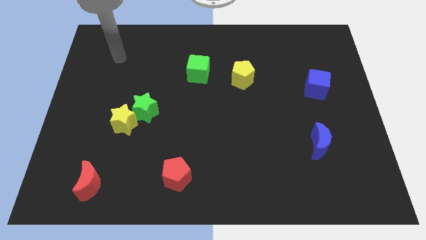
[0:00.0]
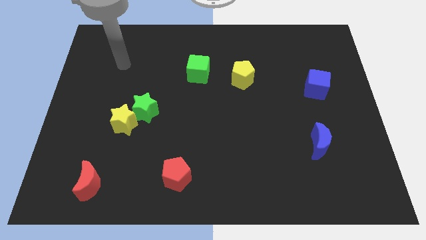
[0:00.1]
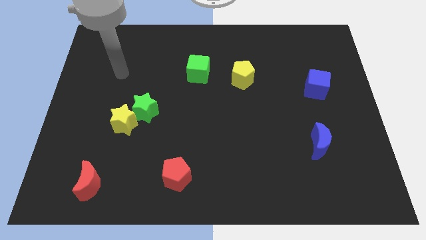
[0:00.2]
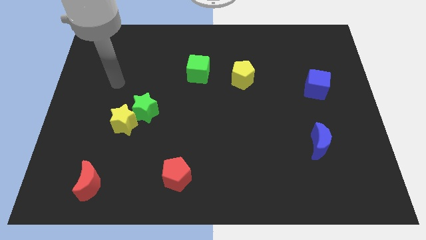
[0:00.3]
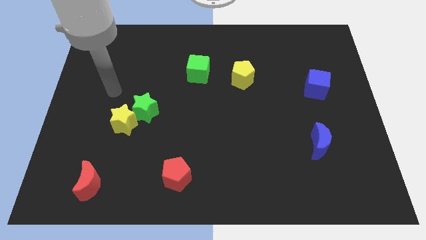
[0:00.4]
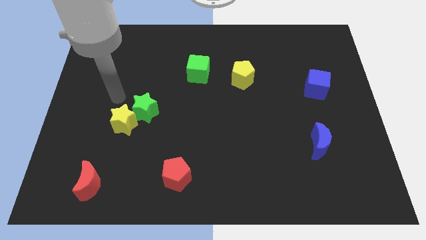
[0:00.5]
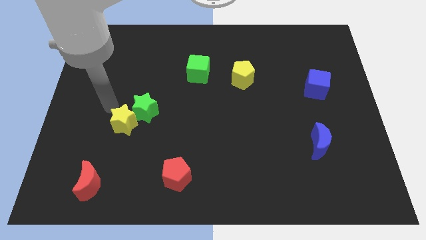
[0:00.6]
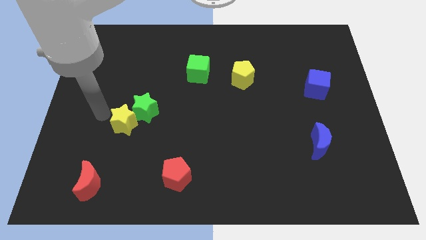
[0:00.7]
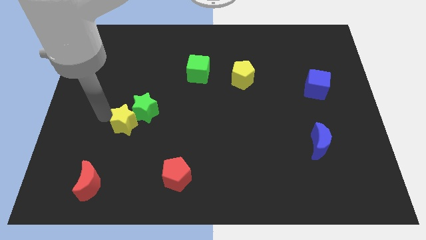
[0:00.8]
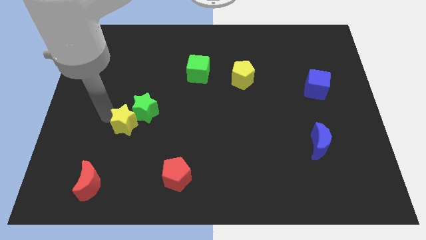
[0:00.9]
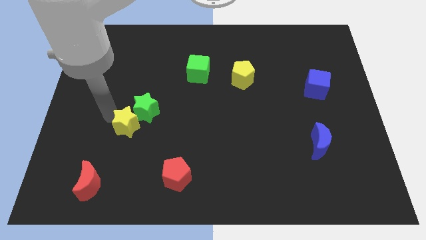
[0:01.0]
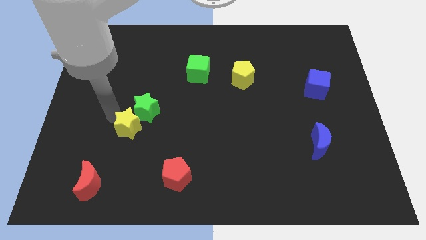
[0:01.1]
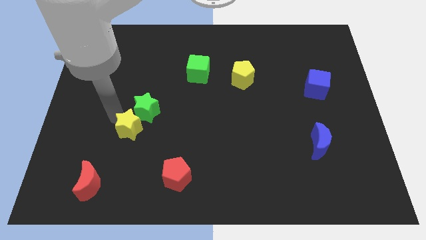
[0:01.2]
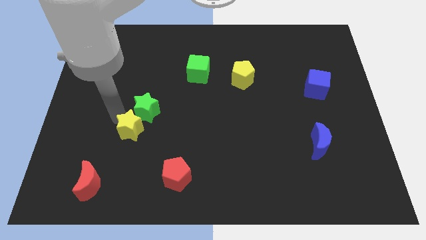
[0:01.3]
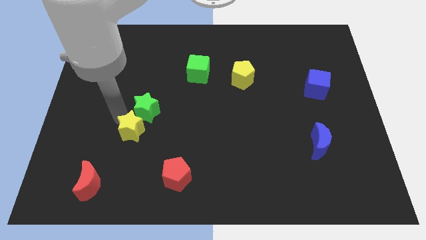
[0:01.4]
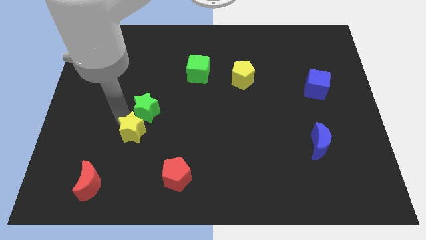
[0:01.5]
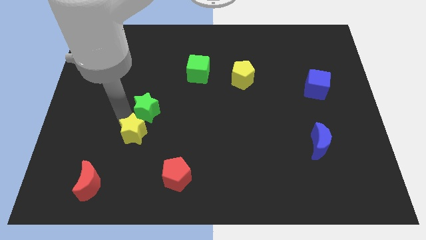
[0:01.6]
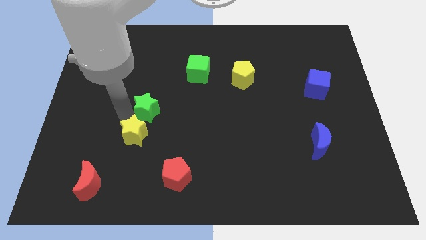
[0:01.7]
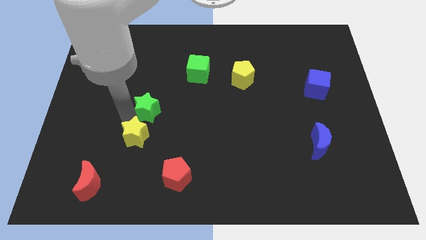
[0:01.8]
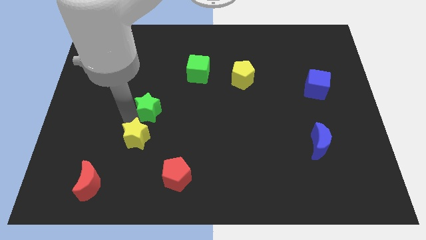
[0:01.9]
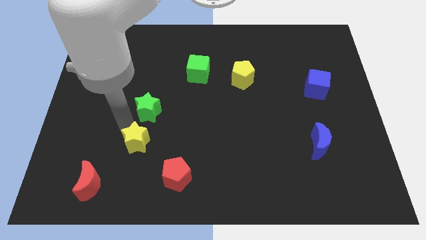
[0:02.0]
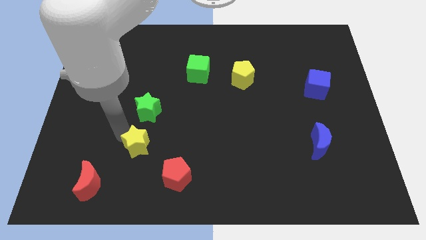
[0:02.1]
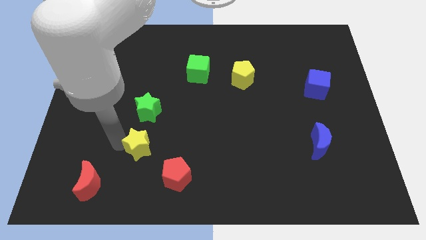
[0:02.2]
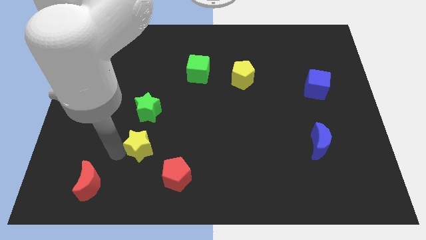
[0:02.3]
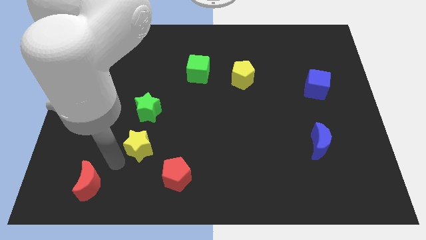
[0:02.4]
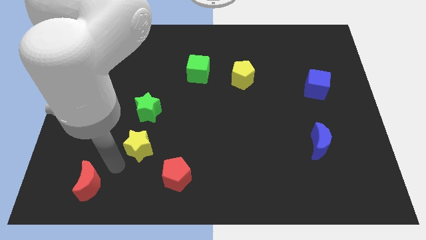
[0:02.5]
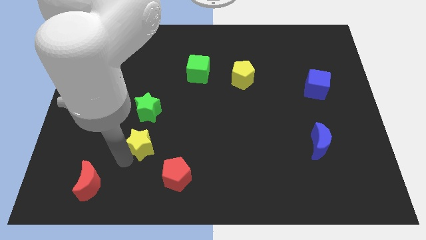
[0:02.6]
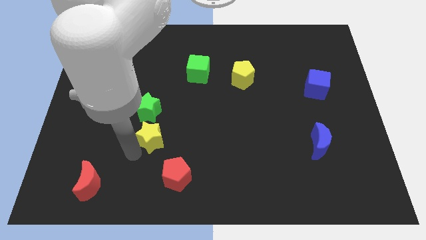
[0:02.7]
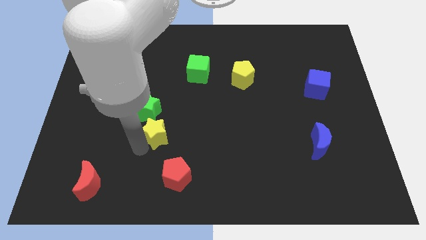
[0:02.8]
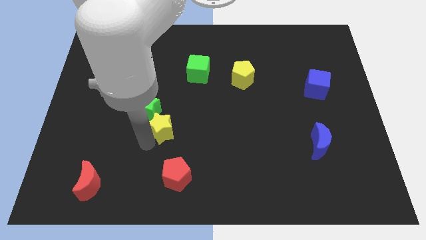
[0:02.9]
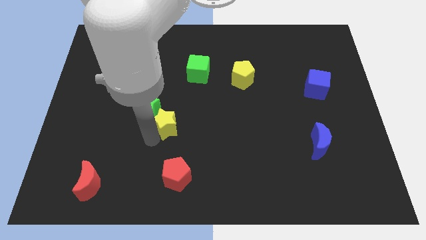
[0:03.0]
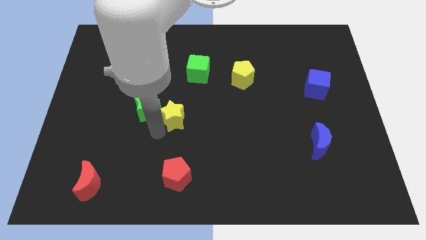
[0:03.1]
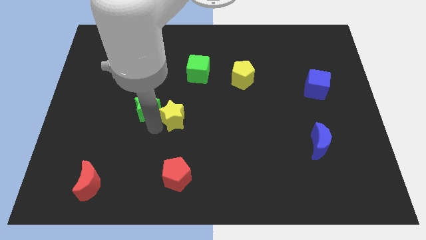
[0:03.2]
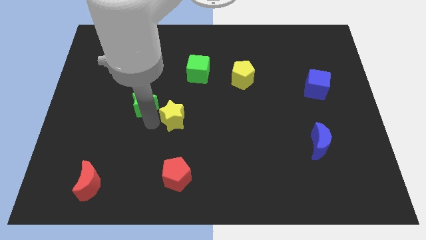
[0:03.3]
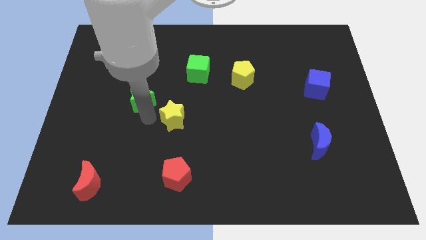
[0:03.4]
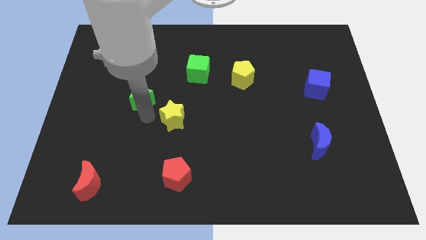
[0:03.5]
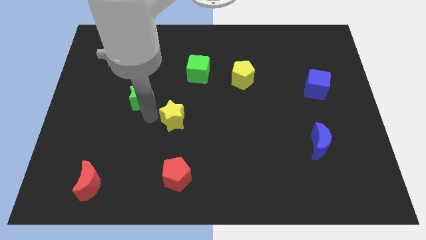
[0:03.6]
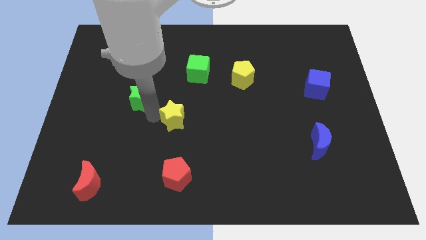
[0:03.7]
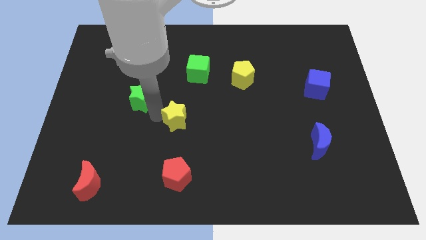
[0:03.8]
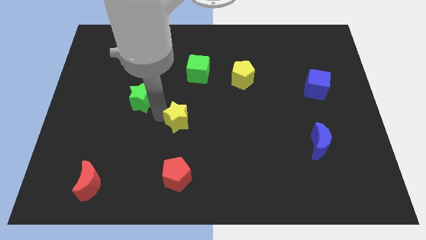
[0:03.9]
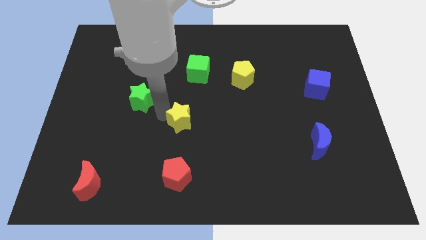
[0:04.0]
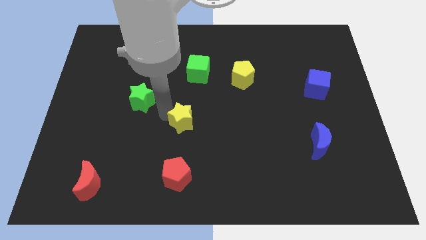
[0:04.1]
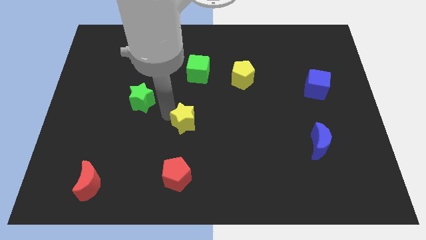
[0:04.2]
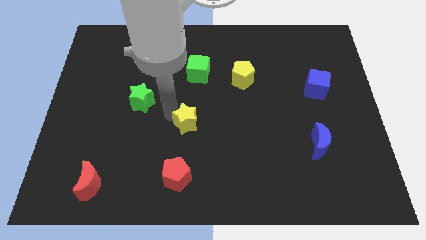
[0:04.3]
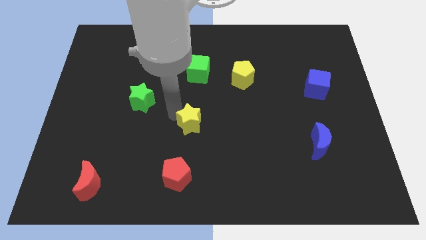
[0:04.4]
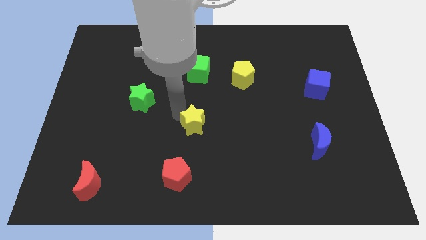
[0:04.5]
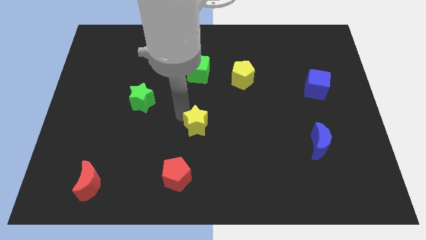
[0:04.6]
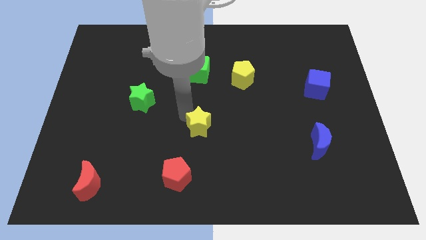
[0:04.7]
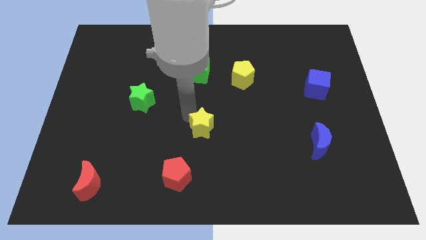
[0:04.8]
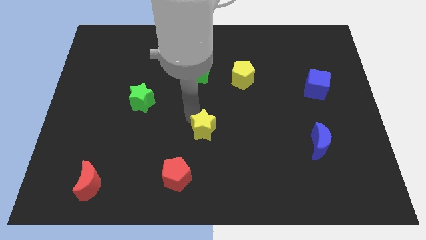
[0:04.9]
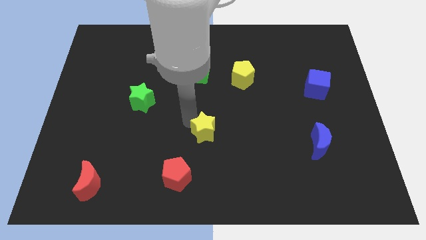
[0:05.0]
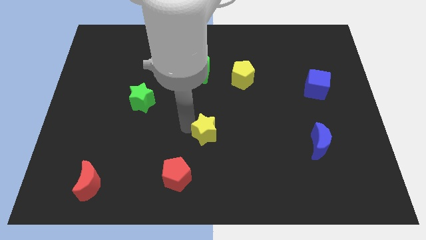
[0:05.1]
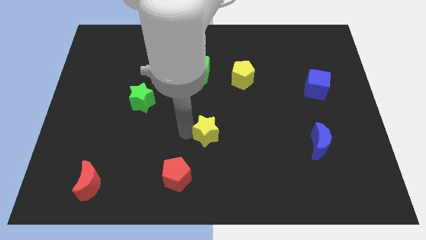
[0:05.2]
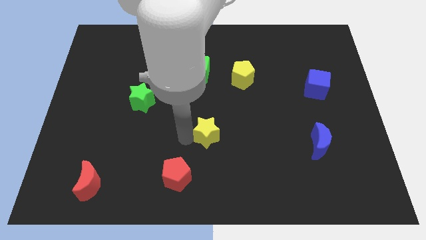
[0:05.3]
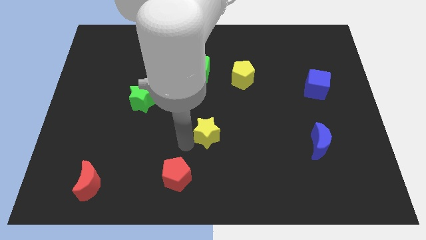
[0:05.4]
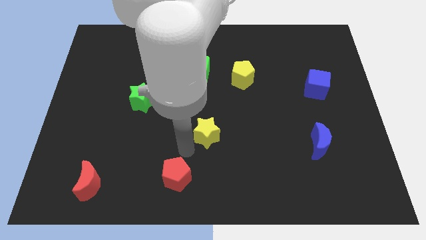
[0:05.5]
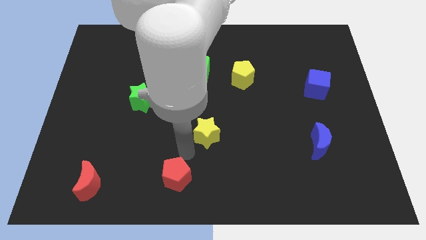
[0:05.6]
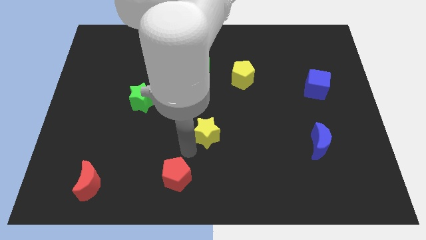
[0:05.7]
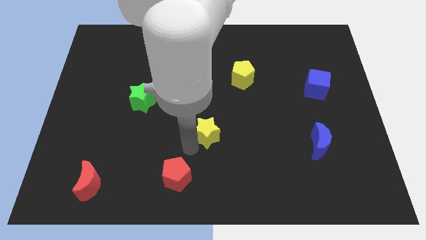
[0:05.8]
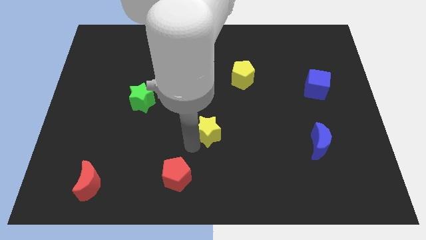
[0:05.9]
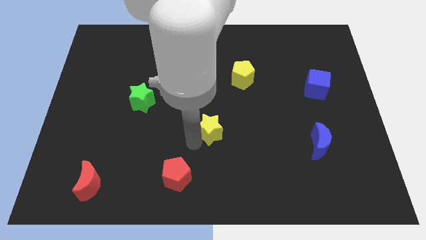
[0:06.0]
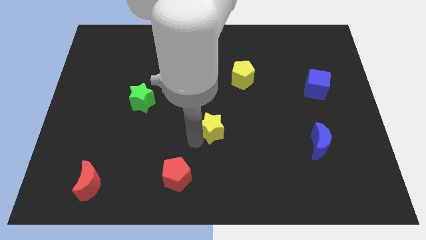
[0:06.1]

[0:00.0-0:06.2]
push the yellow star to the right

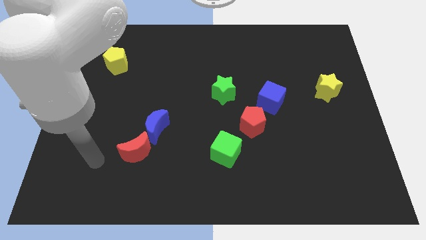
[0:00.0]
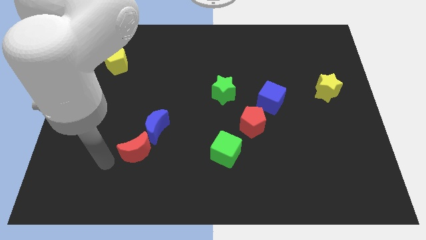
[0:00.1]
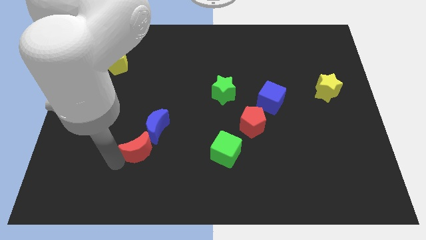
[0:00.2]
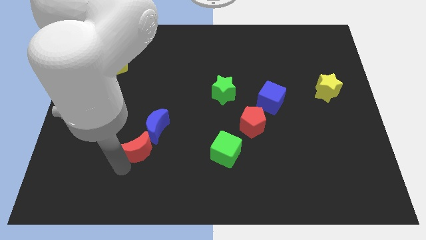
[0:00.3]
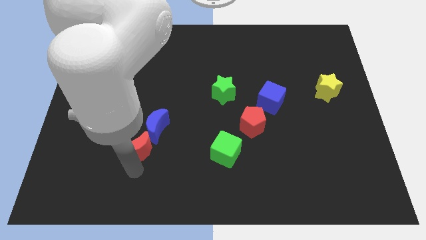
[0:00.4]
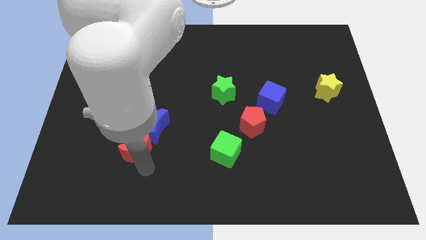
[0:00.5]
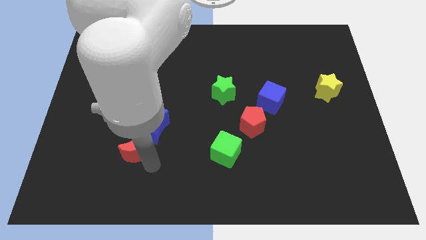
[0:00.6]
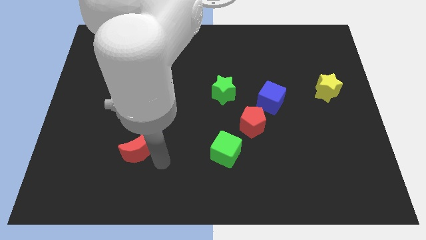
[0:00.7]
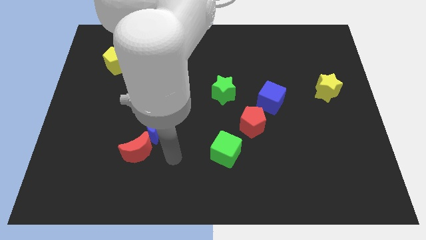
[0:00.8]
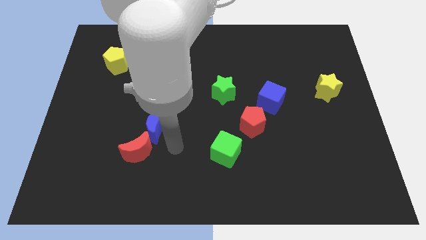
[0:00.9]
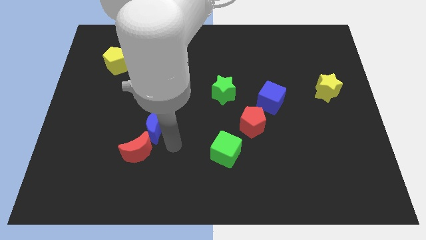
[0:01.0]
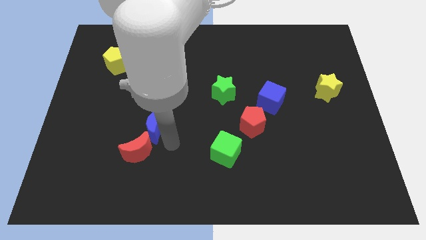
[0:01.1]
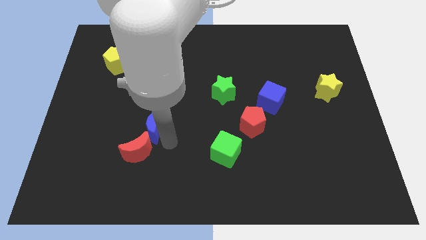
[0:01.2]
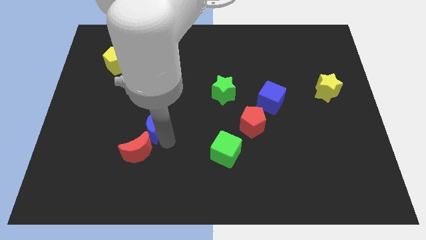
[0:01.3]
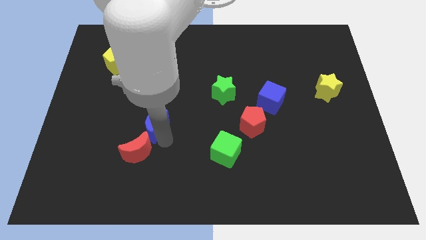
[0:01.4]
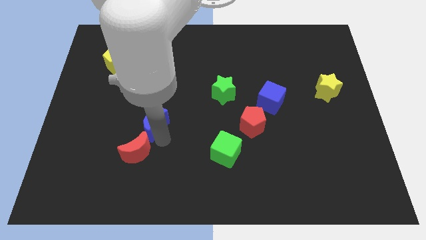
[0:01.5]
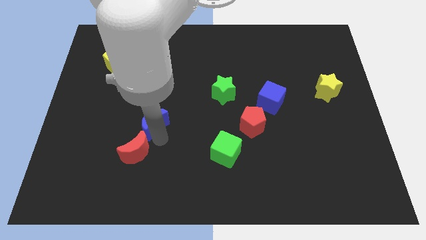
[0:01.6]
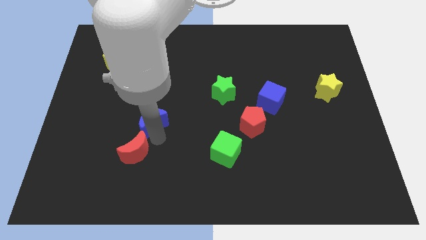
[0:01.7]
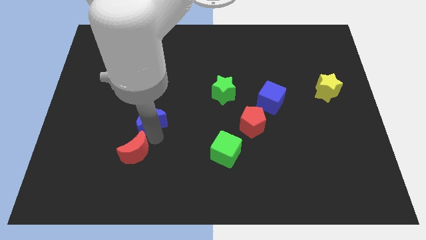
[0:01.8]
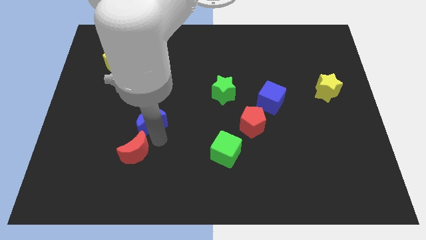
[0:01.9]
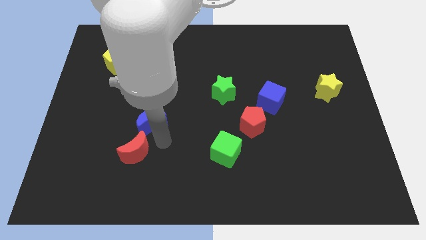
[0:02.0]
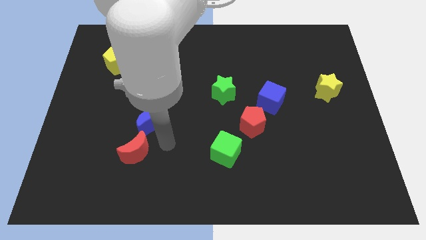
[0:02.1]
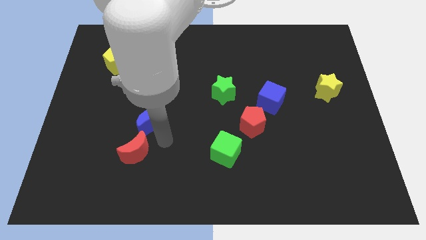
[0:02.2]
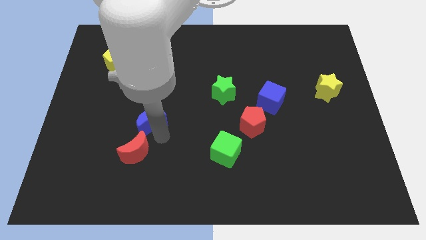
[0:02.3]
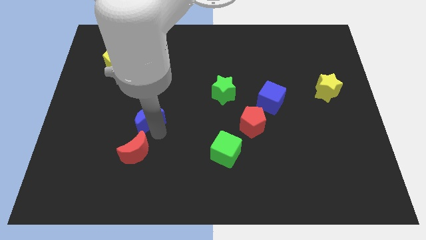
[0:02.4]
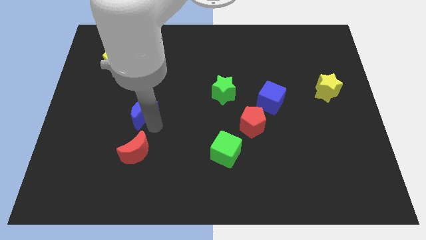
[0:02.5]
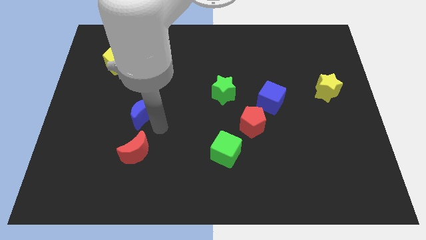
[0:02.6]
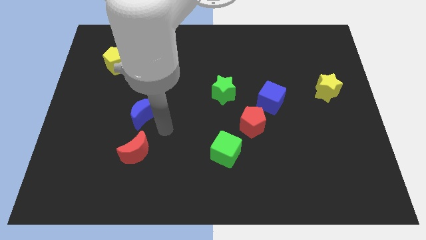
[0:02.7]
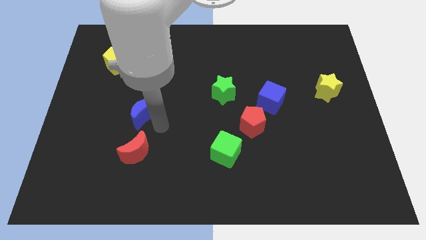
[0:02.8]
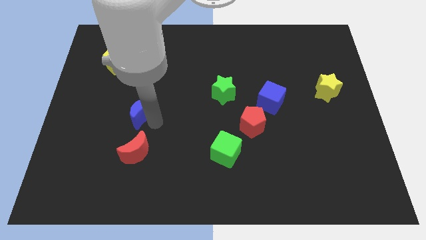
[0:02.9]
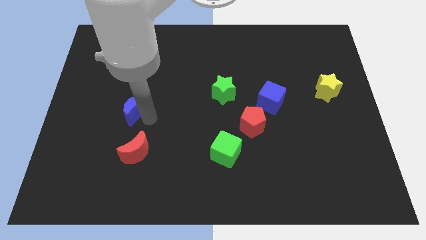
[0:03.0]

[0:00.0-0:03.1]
move the blue moon slightly diagonally upwards and to the left
